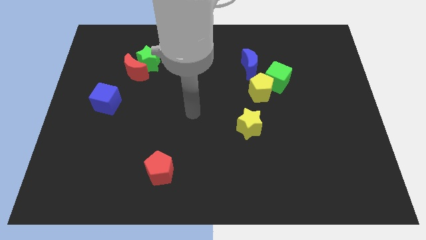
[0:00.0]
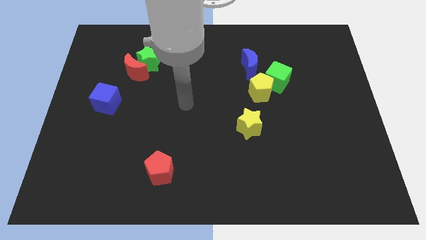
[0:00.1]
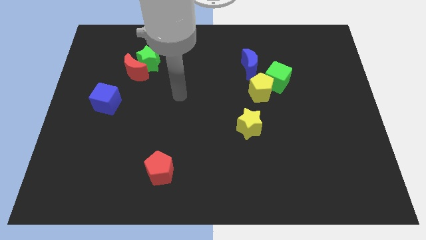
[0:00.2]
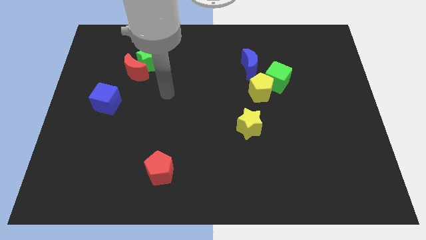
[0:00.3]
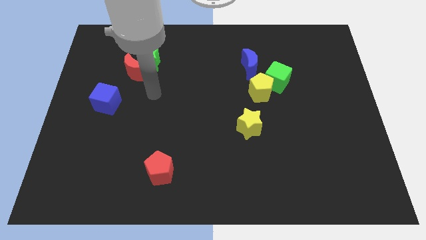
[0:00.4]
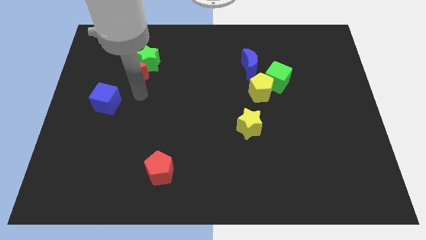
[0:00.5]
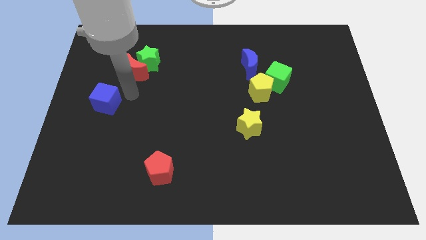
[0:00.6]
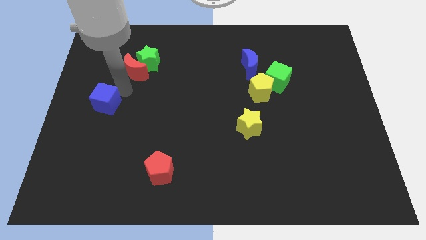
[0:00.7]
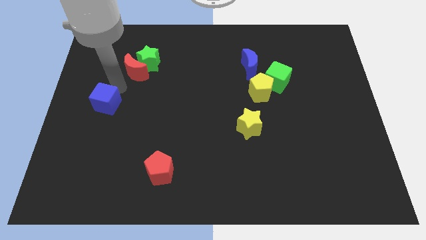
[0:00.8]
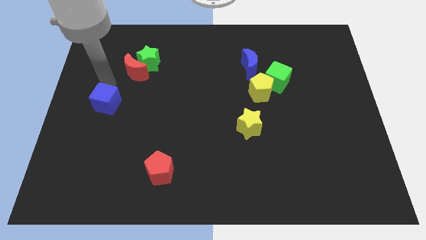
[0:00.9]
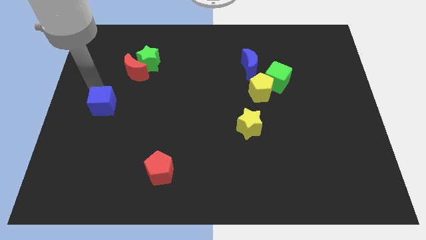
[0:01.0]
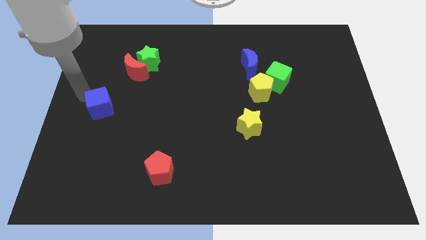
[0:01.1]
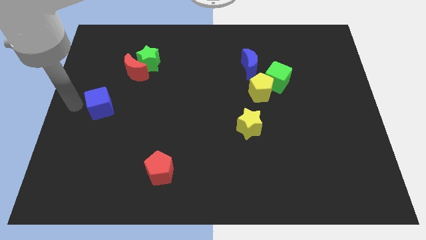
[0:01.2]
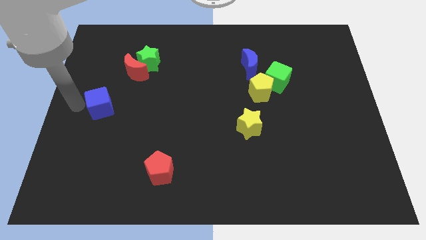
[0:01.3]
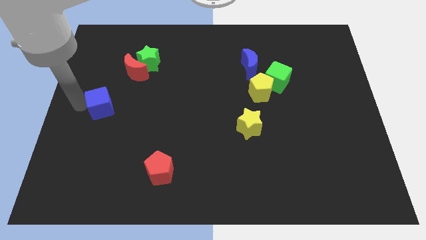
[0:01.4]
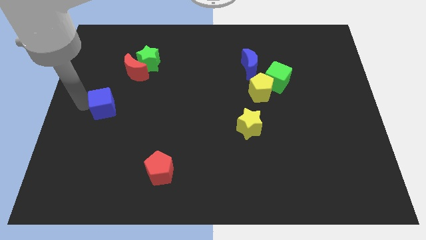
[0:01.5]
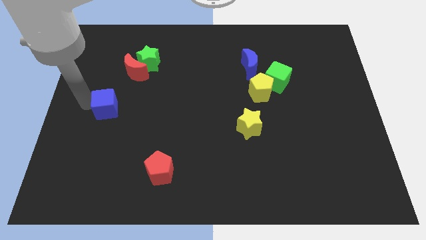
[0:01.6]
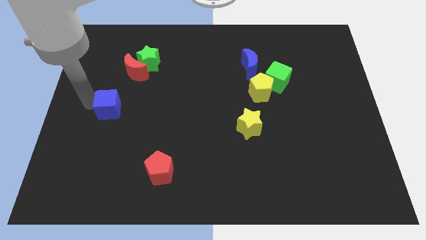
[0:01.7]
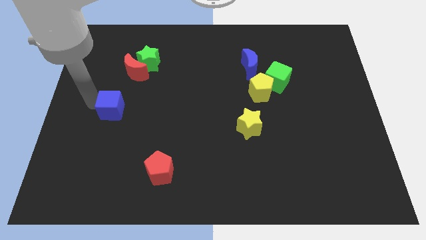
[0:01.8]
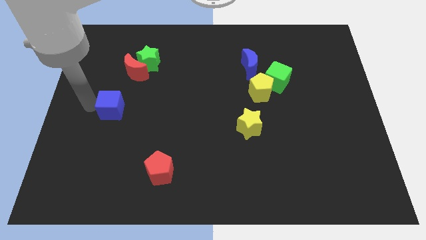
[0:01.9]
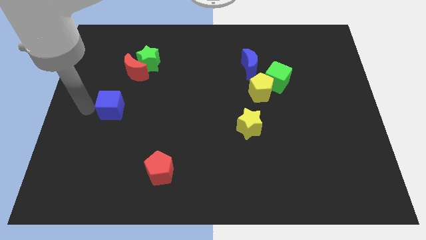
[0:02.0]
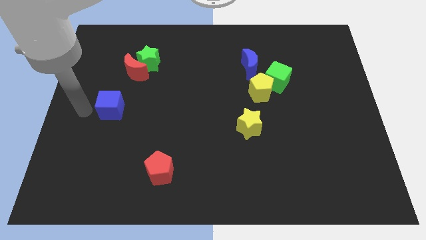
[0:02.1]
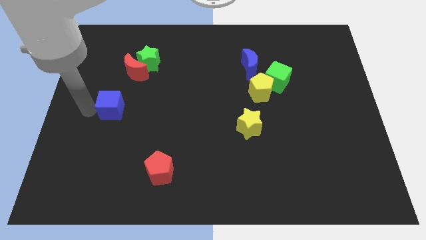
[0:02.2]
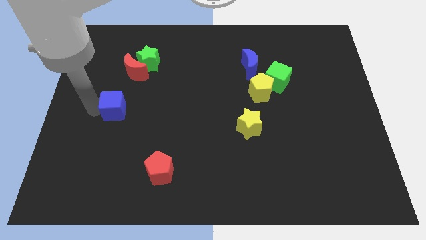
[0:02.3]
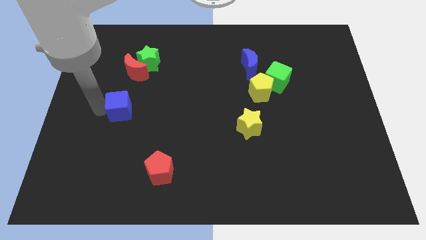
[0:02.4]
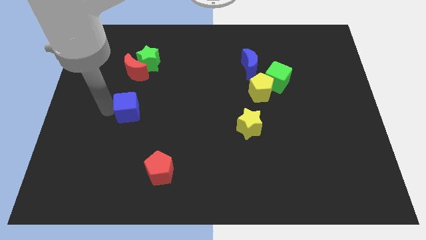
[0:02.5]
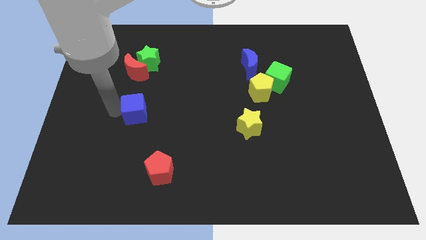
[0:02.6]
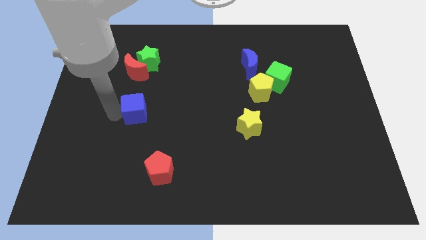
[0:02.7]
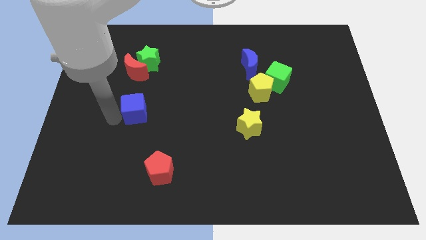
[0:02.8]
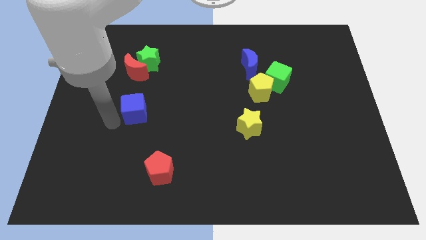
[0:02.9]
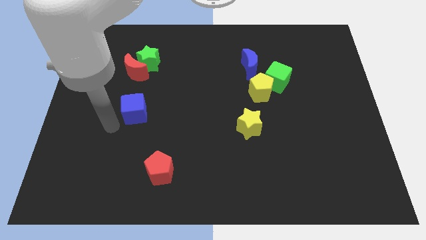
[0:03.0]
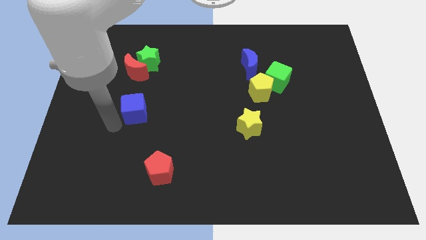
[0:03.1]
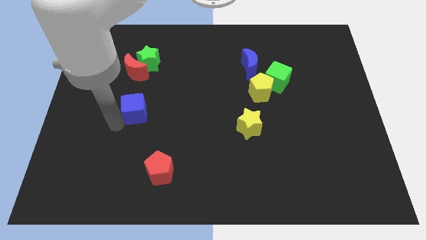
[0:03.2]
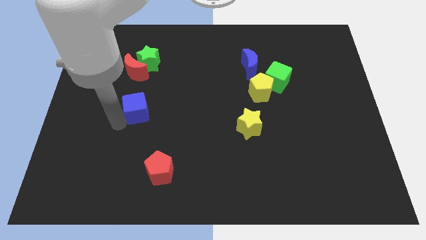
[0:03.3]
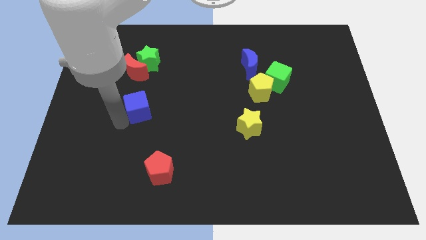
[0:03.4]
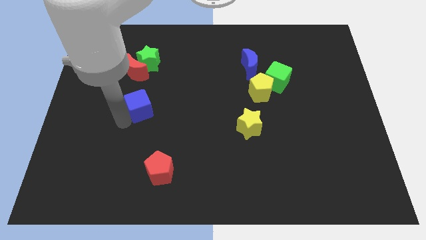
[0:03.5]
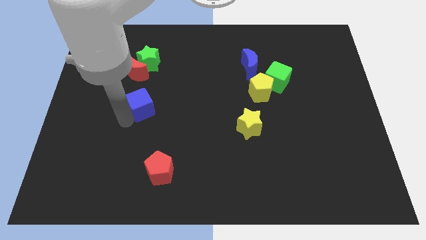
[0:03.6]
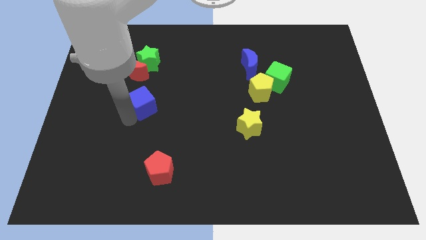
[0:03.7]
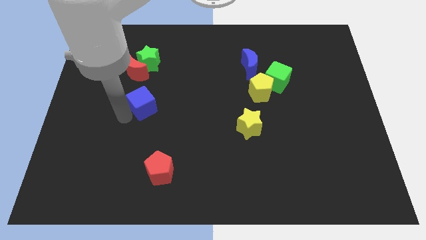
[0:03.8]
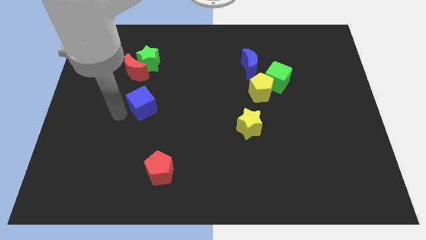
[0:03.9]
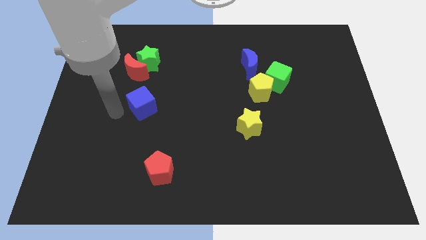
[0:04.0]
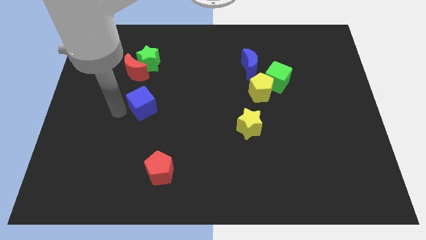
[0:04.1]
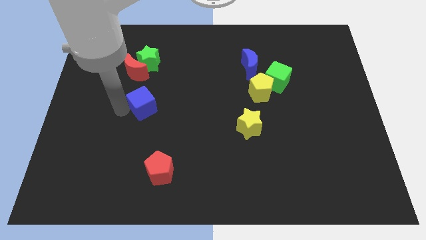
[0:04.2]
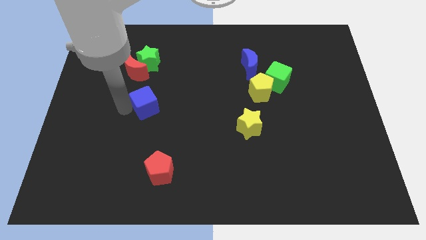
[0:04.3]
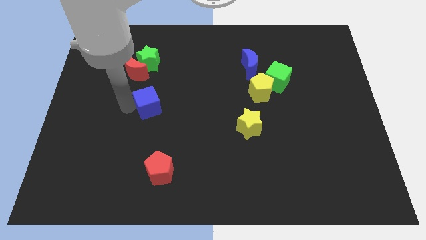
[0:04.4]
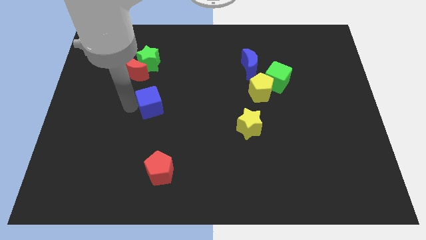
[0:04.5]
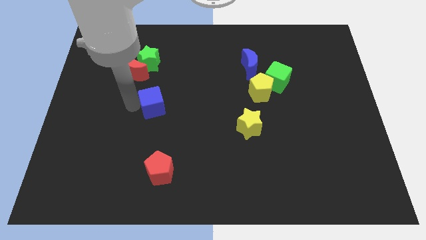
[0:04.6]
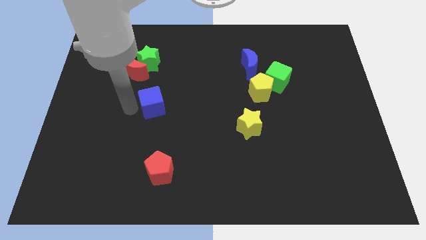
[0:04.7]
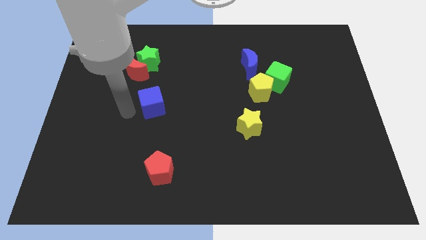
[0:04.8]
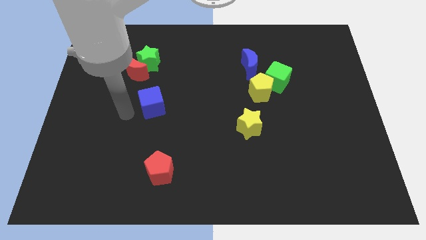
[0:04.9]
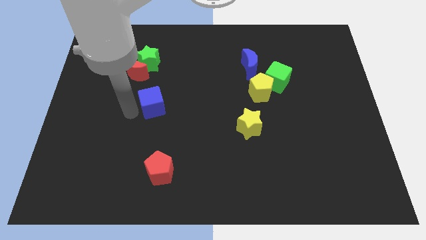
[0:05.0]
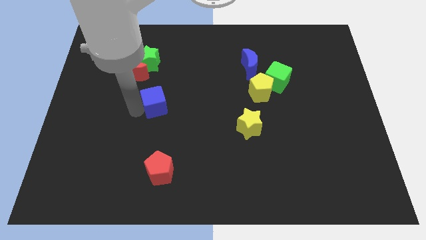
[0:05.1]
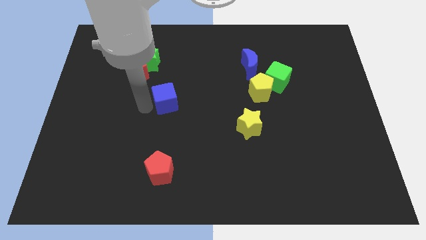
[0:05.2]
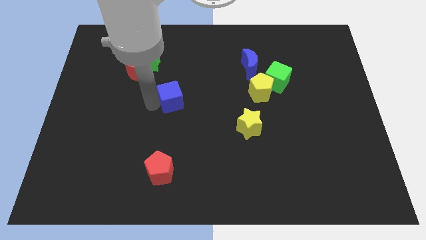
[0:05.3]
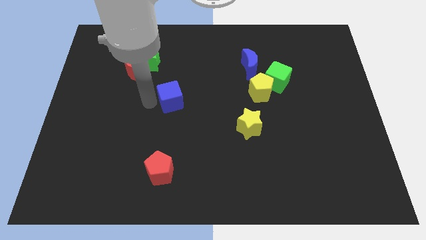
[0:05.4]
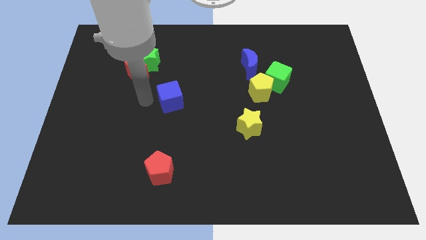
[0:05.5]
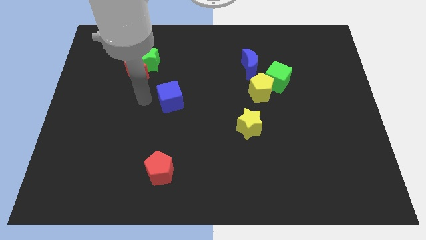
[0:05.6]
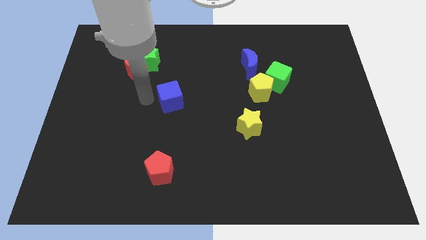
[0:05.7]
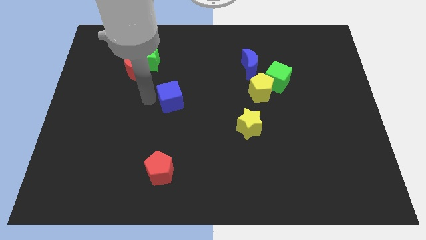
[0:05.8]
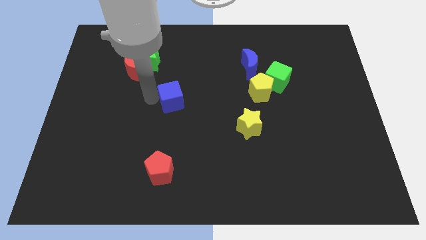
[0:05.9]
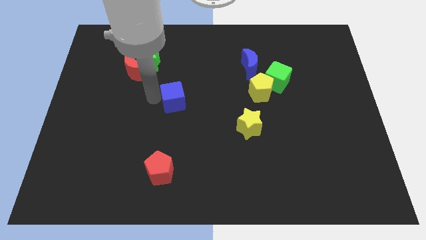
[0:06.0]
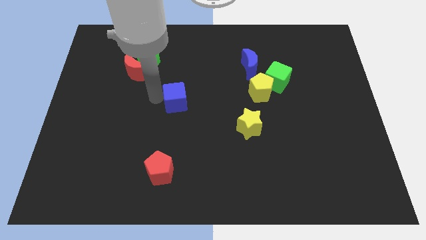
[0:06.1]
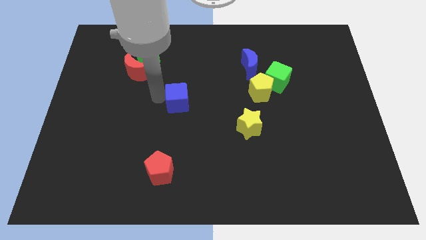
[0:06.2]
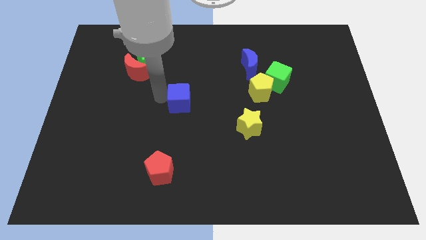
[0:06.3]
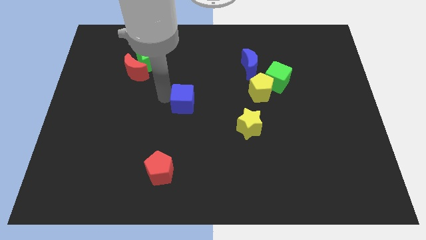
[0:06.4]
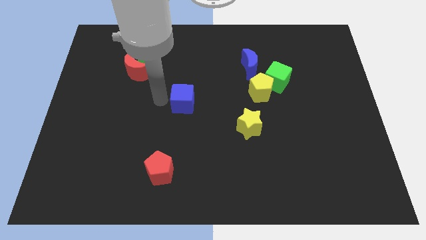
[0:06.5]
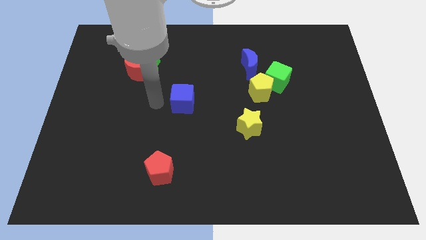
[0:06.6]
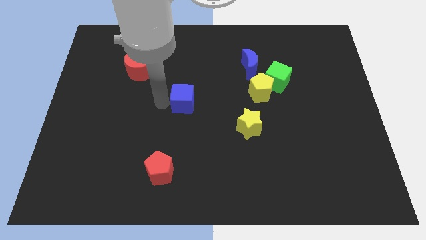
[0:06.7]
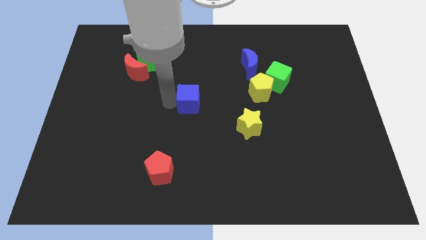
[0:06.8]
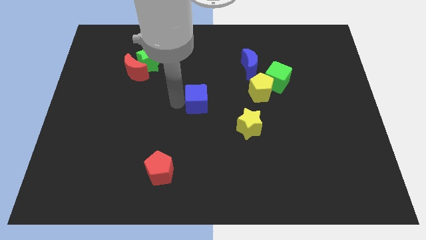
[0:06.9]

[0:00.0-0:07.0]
move the blue cube to the right

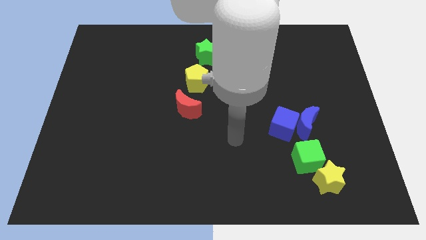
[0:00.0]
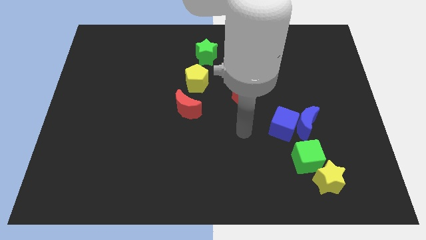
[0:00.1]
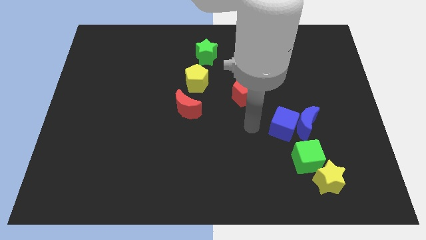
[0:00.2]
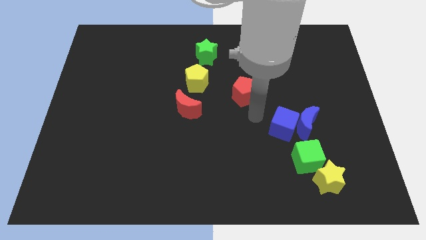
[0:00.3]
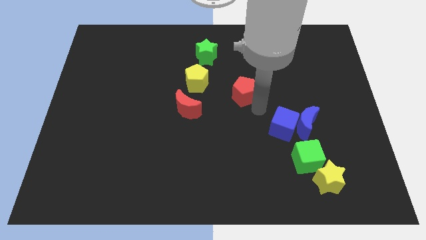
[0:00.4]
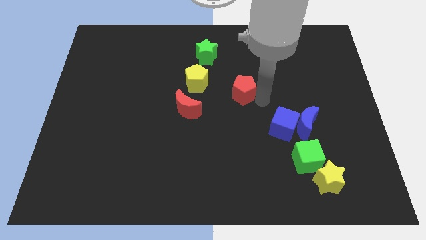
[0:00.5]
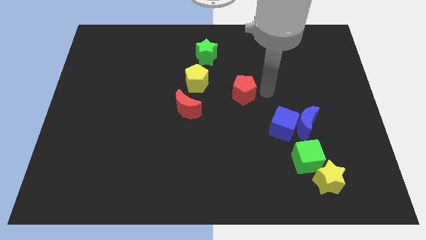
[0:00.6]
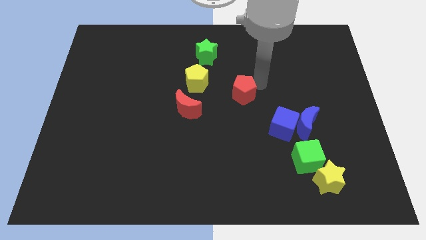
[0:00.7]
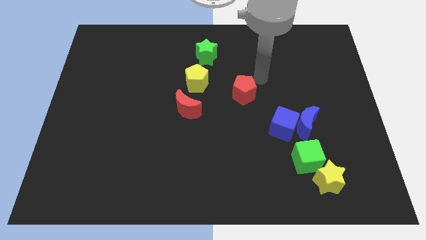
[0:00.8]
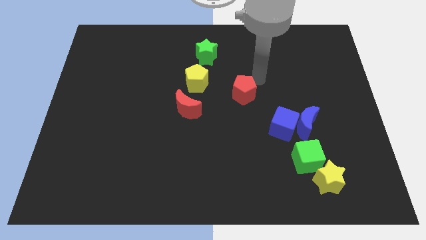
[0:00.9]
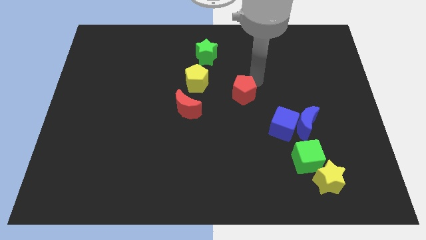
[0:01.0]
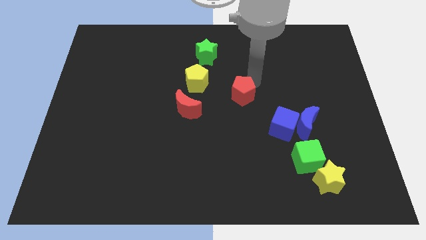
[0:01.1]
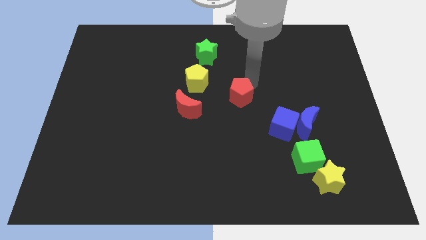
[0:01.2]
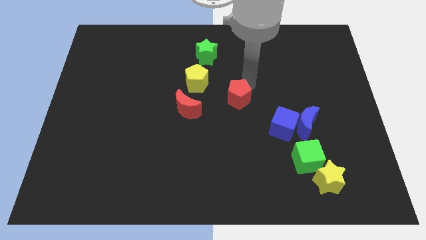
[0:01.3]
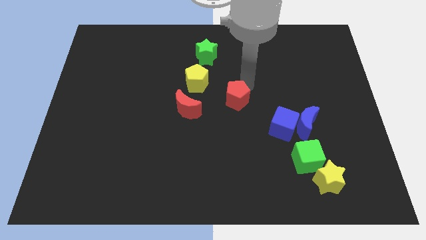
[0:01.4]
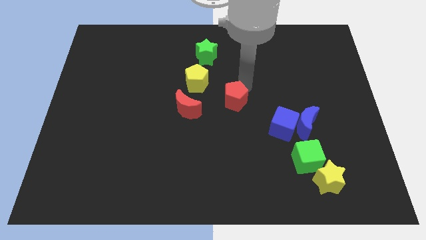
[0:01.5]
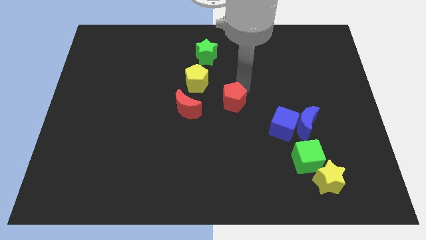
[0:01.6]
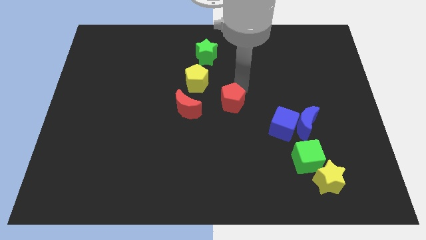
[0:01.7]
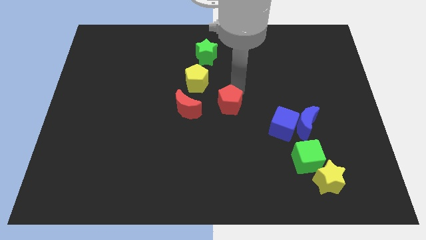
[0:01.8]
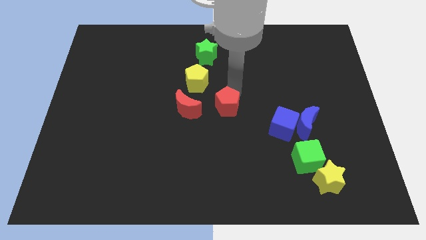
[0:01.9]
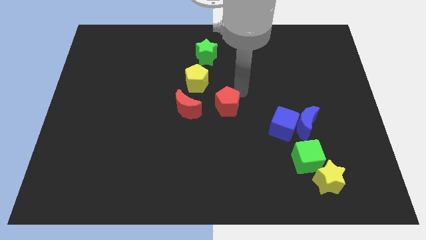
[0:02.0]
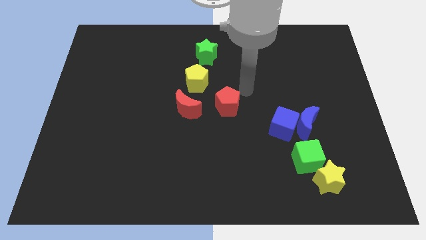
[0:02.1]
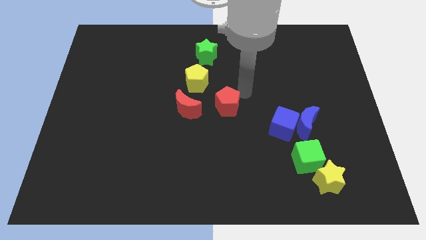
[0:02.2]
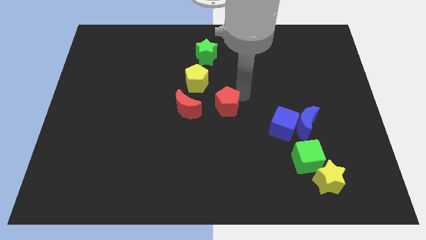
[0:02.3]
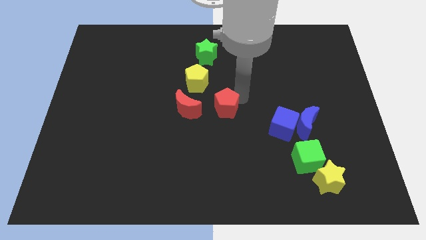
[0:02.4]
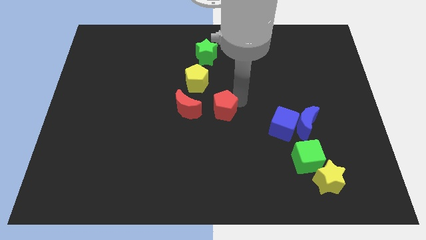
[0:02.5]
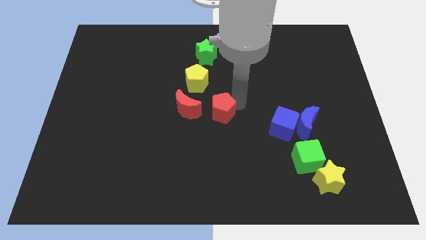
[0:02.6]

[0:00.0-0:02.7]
slightly push the red pentagon down and to the left
